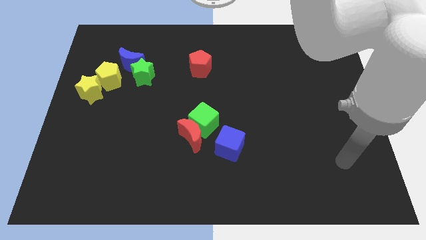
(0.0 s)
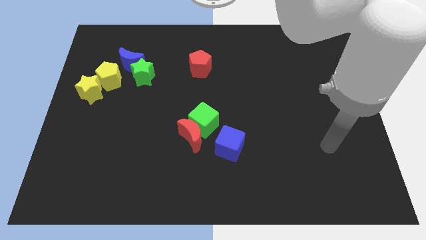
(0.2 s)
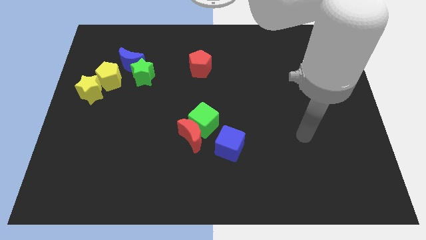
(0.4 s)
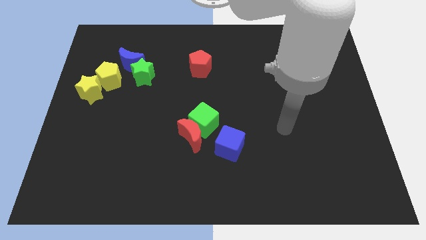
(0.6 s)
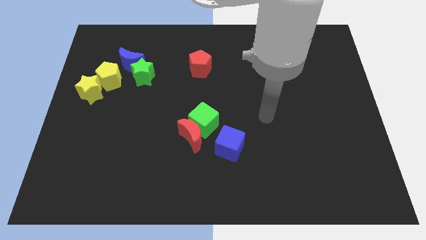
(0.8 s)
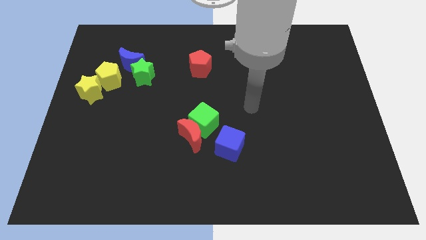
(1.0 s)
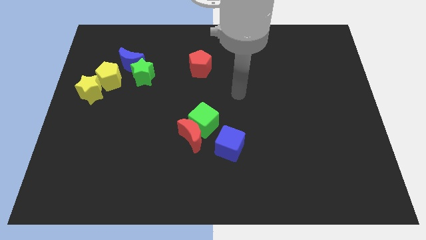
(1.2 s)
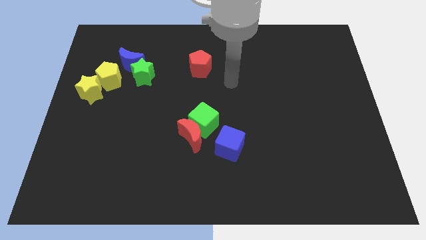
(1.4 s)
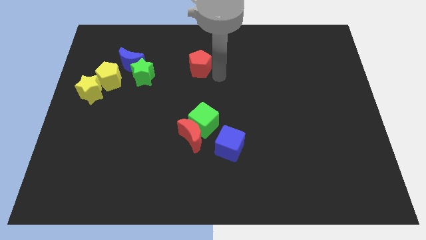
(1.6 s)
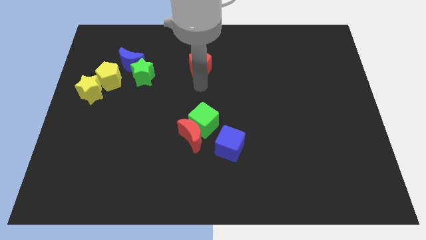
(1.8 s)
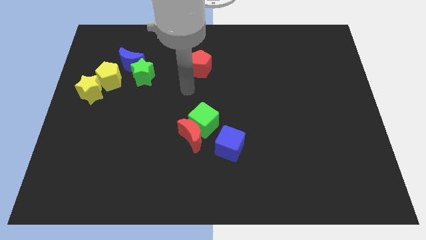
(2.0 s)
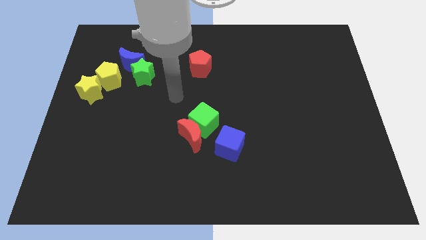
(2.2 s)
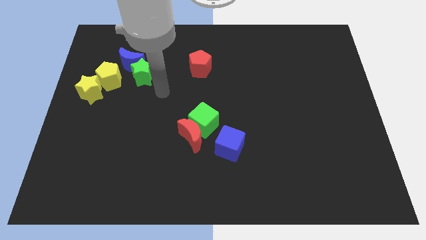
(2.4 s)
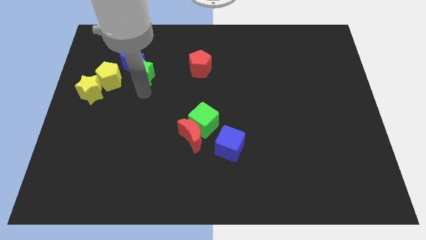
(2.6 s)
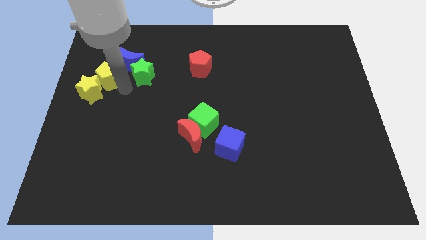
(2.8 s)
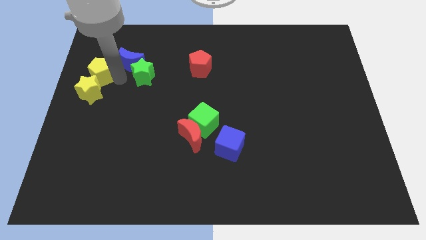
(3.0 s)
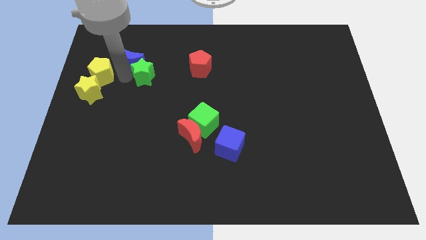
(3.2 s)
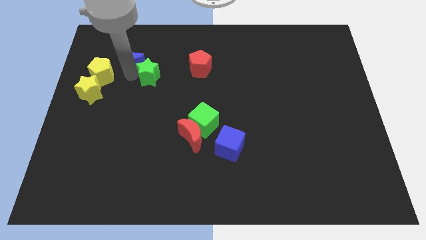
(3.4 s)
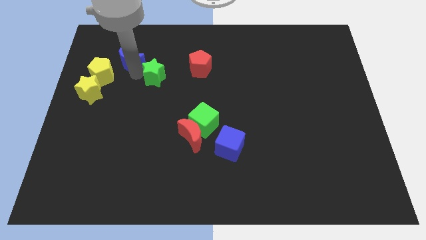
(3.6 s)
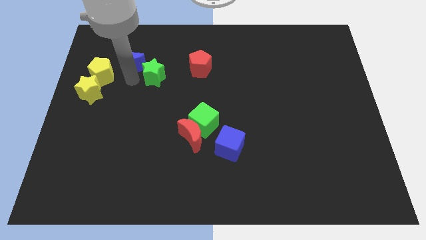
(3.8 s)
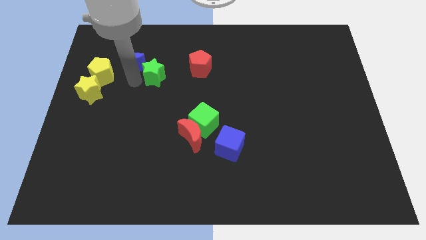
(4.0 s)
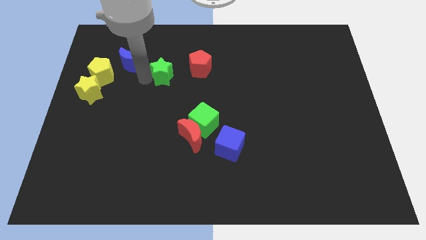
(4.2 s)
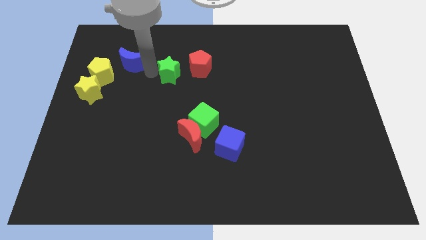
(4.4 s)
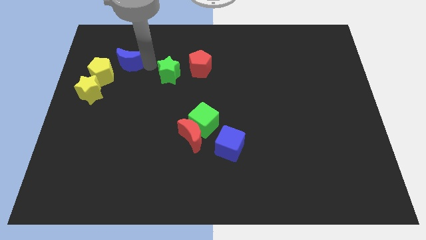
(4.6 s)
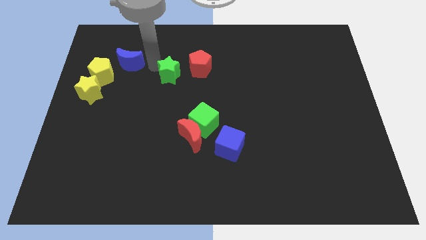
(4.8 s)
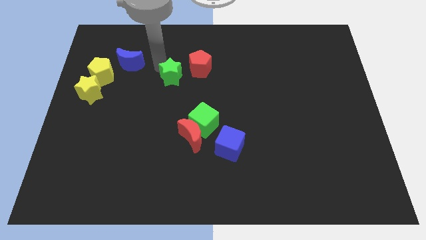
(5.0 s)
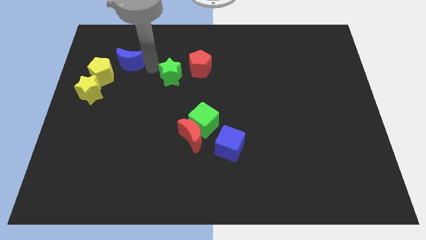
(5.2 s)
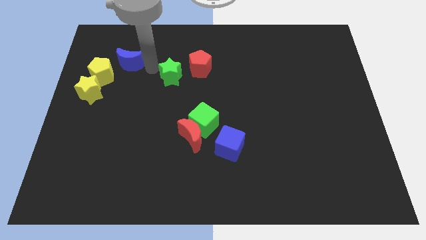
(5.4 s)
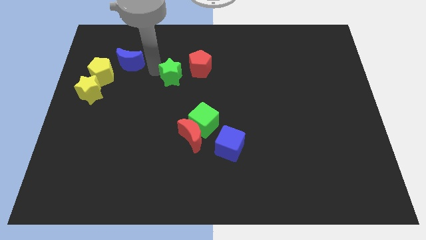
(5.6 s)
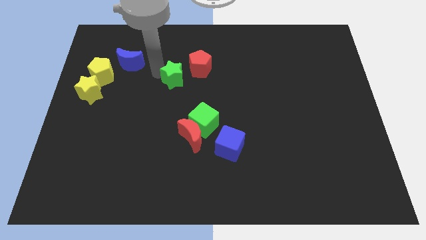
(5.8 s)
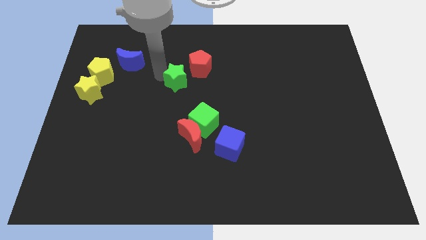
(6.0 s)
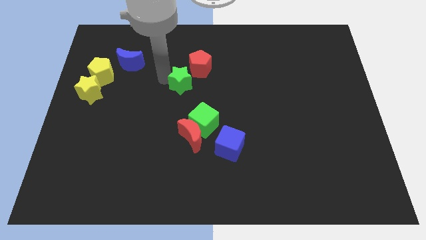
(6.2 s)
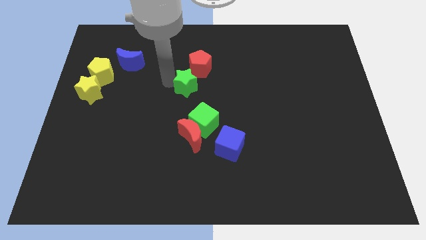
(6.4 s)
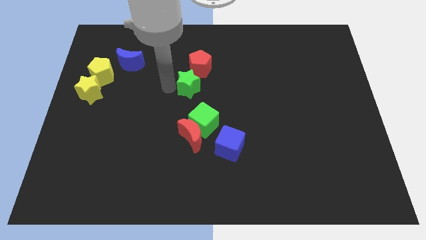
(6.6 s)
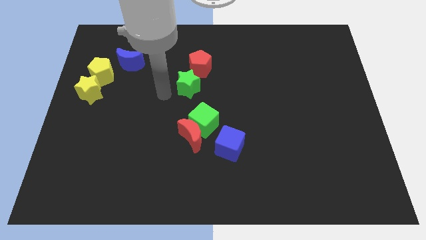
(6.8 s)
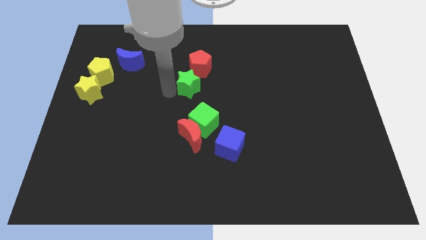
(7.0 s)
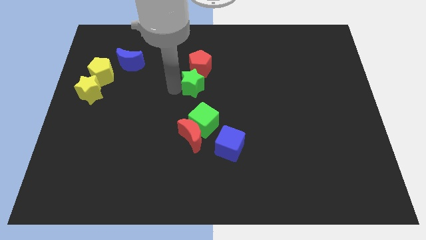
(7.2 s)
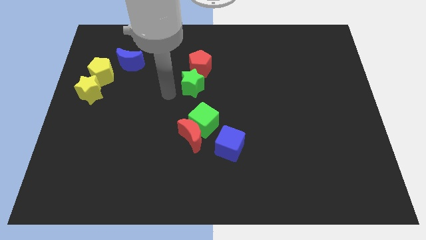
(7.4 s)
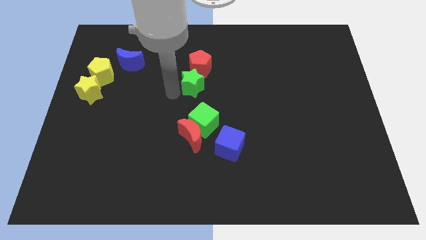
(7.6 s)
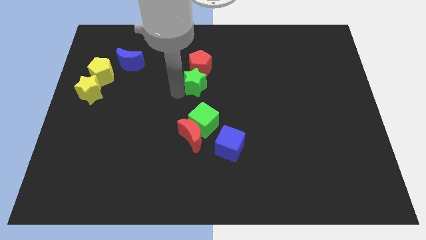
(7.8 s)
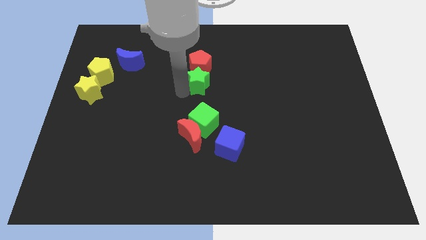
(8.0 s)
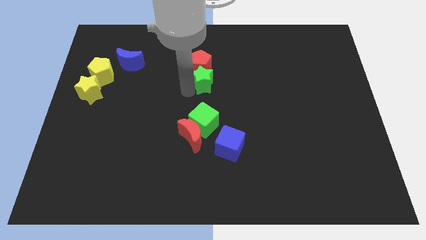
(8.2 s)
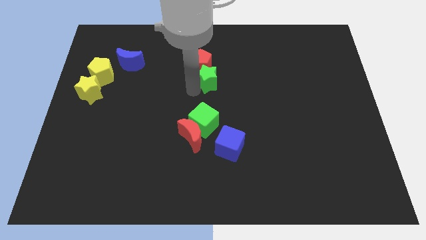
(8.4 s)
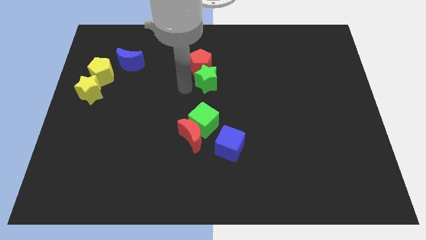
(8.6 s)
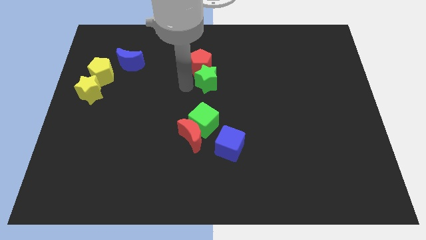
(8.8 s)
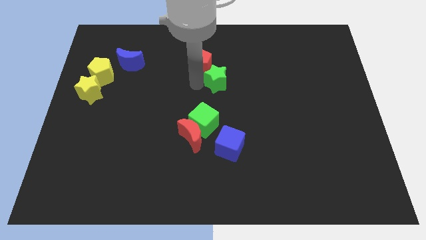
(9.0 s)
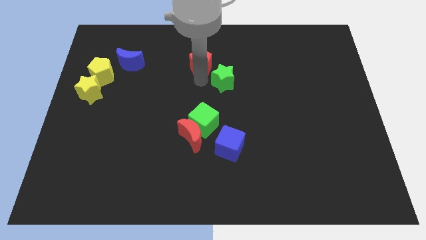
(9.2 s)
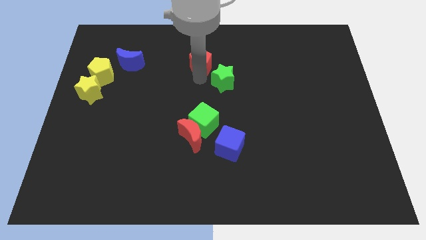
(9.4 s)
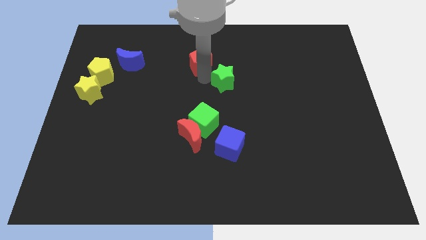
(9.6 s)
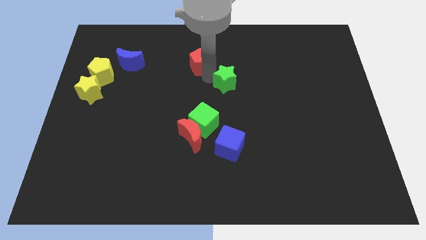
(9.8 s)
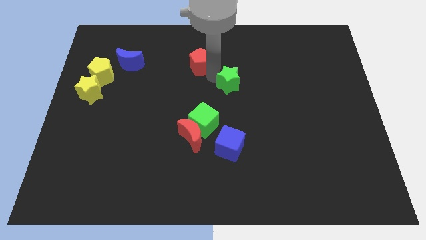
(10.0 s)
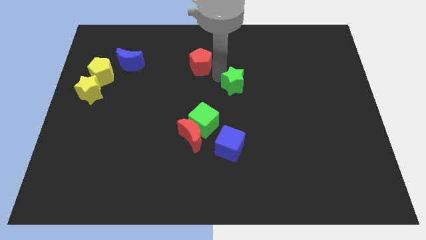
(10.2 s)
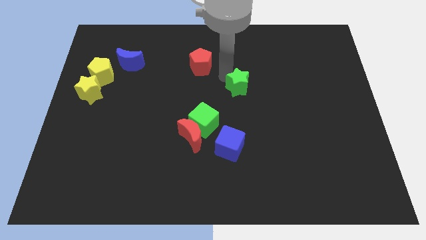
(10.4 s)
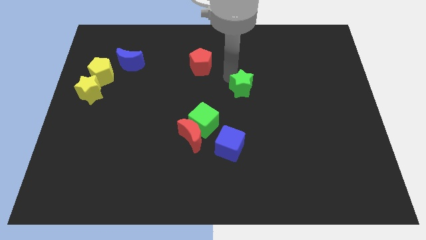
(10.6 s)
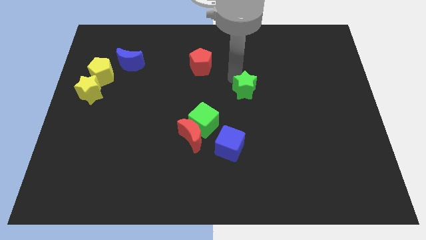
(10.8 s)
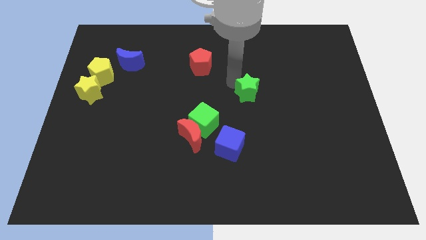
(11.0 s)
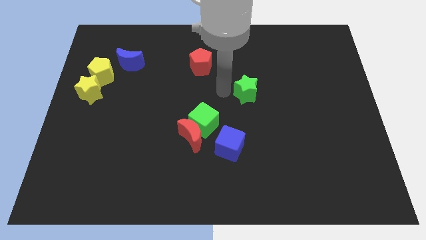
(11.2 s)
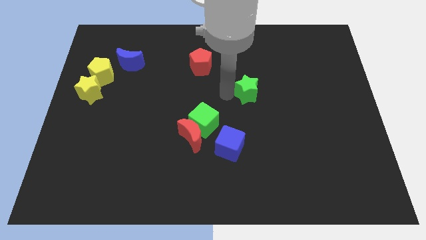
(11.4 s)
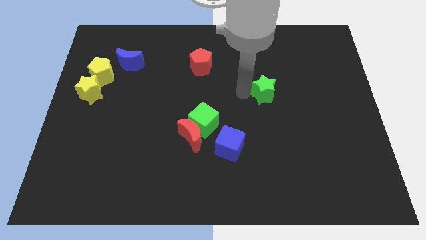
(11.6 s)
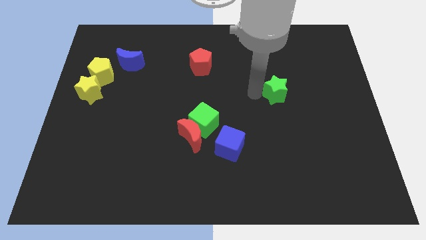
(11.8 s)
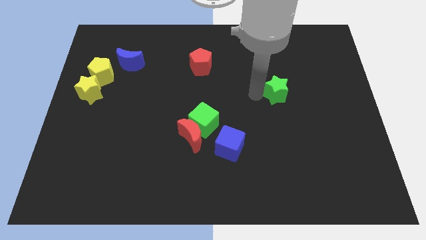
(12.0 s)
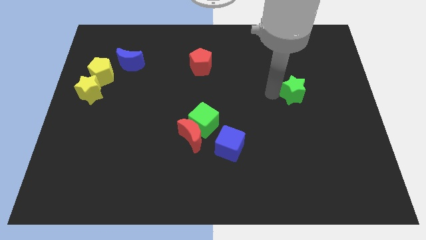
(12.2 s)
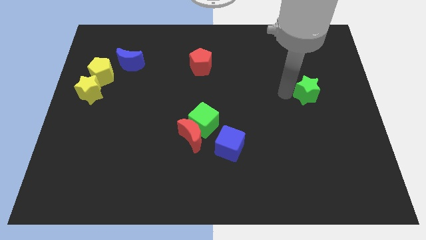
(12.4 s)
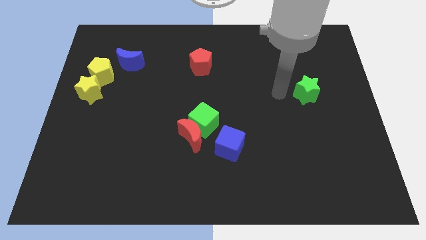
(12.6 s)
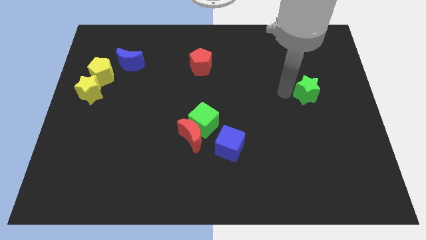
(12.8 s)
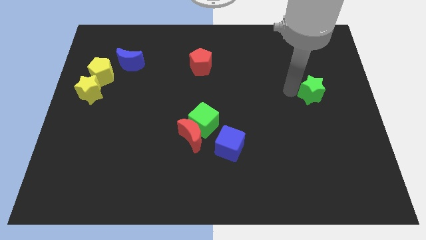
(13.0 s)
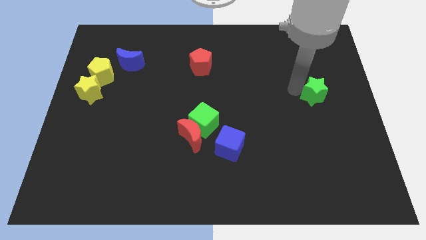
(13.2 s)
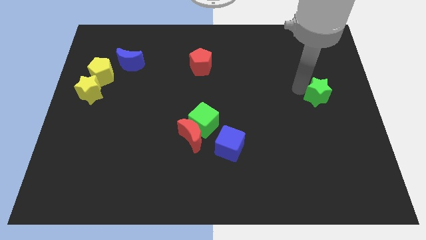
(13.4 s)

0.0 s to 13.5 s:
slide the green star to the center right
